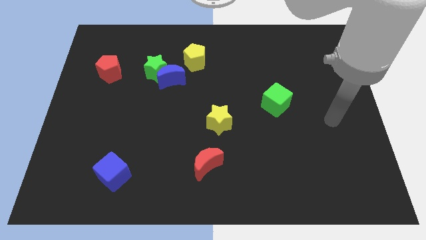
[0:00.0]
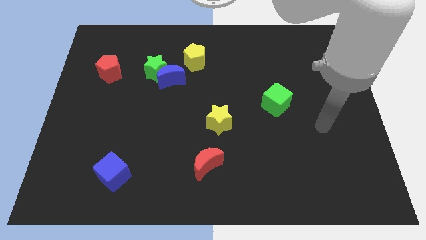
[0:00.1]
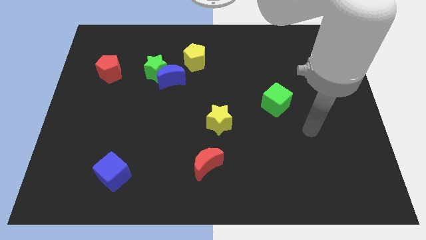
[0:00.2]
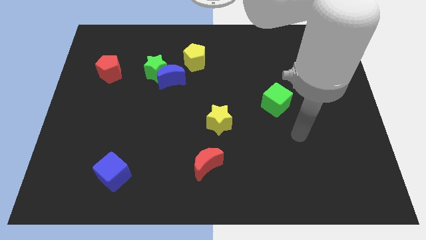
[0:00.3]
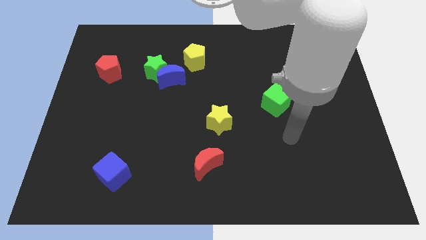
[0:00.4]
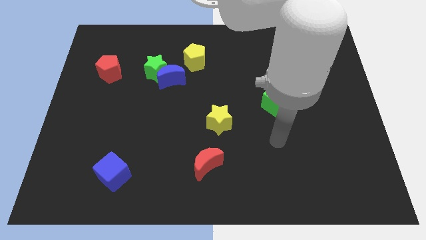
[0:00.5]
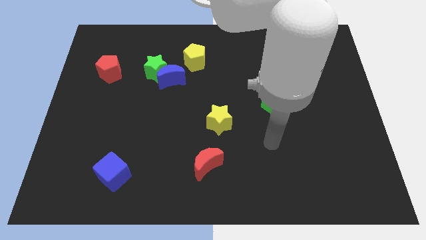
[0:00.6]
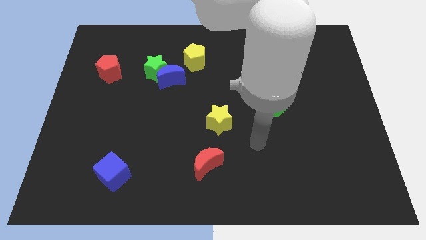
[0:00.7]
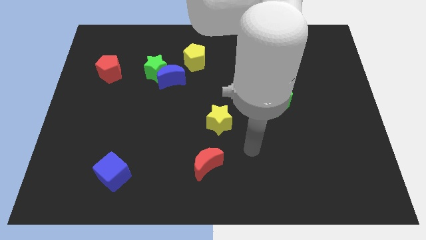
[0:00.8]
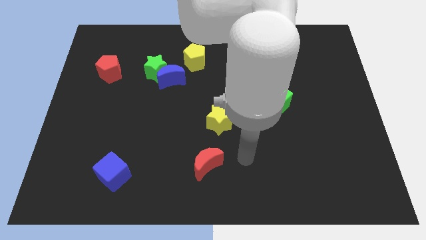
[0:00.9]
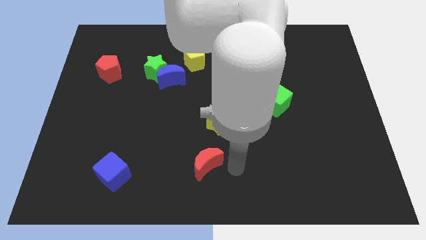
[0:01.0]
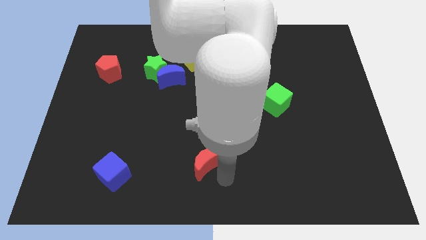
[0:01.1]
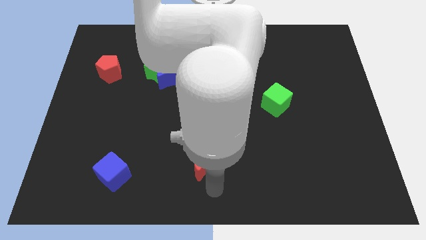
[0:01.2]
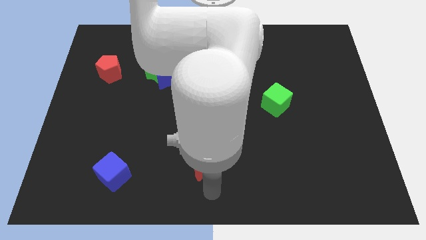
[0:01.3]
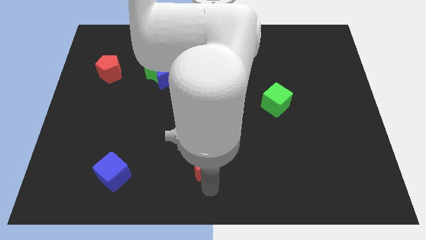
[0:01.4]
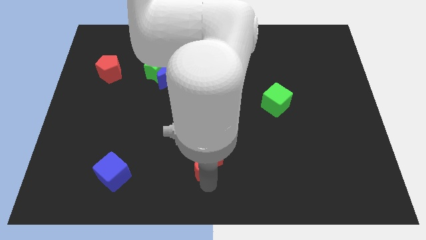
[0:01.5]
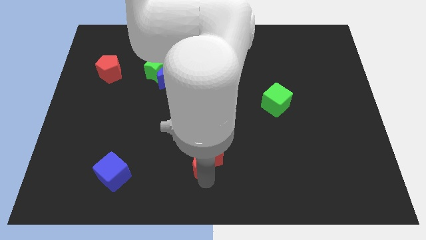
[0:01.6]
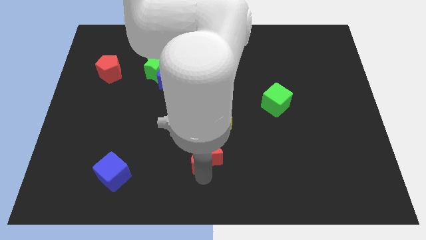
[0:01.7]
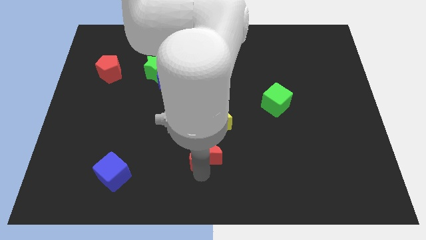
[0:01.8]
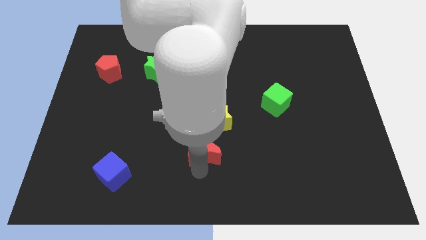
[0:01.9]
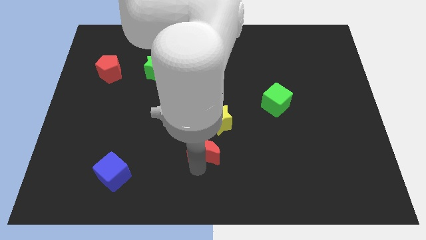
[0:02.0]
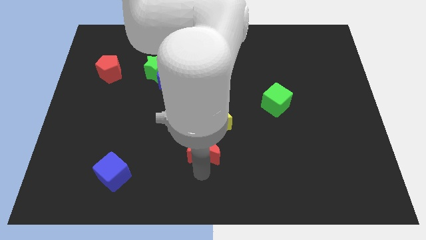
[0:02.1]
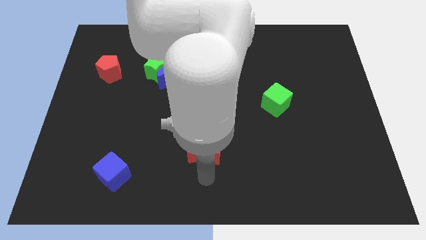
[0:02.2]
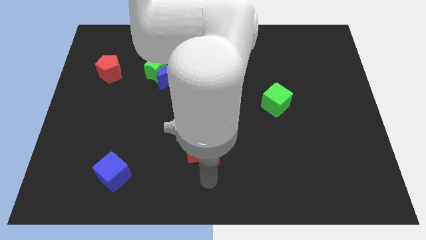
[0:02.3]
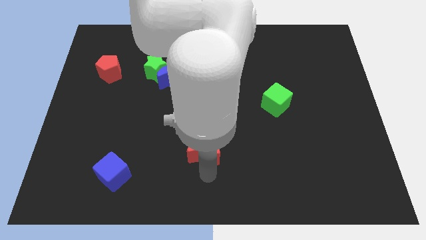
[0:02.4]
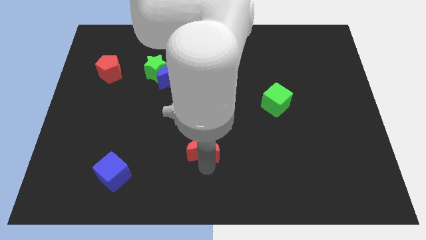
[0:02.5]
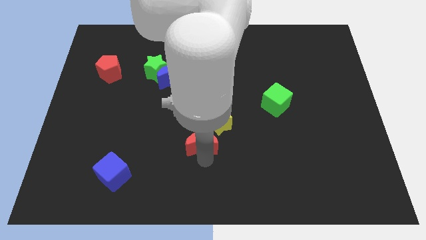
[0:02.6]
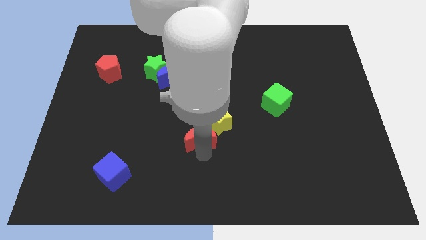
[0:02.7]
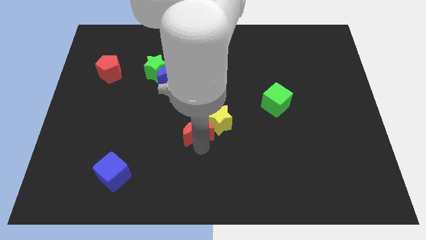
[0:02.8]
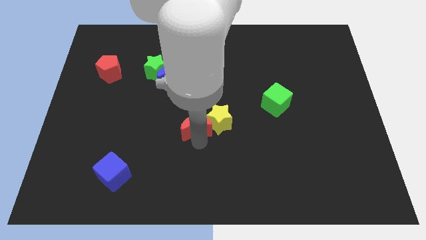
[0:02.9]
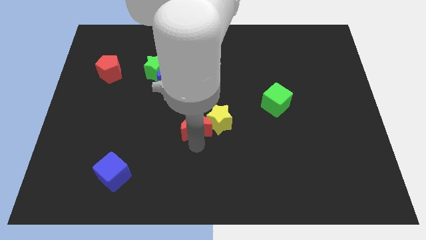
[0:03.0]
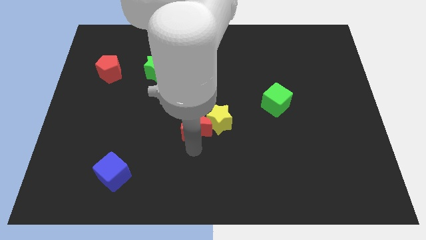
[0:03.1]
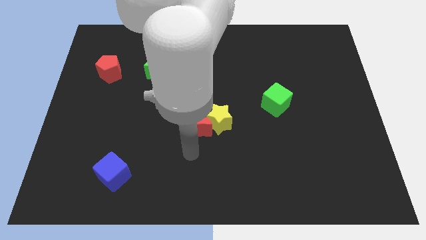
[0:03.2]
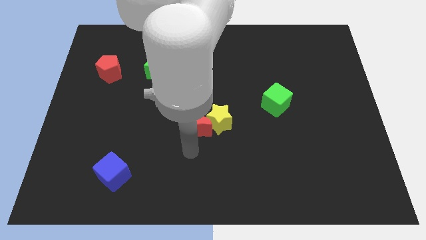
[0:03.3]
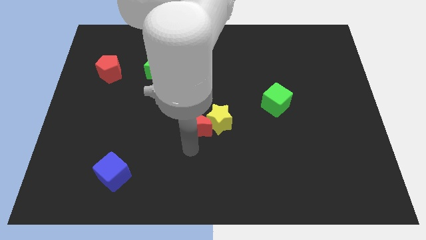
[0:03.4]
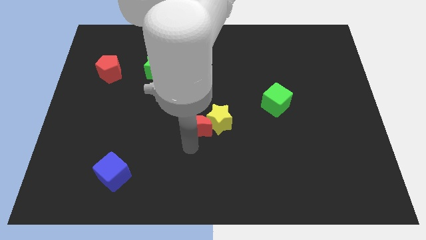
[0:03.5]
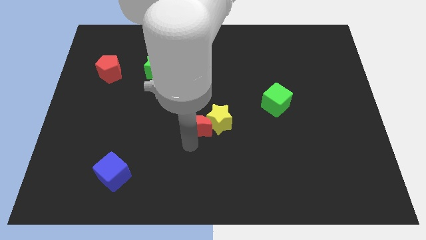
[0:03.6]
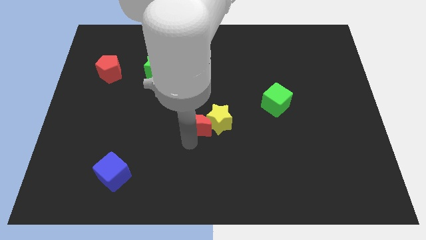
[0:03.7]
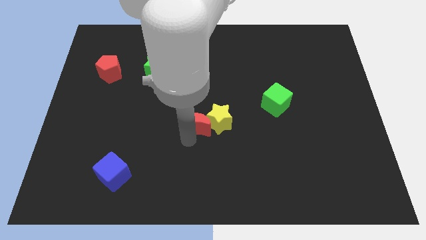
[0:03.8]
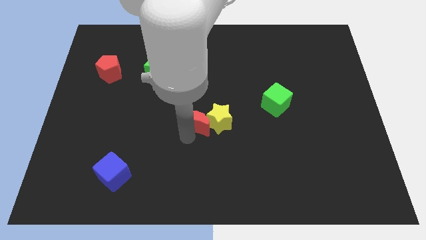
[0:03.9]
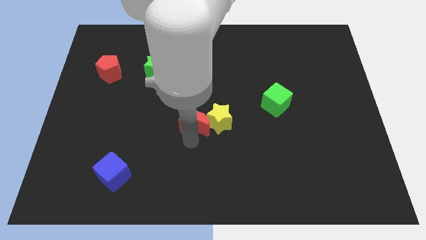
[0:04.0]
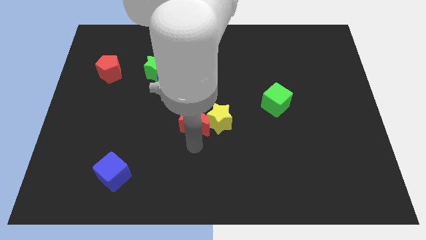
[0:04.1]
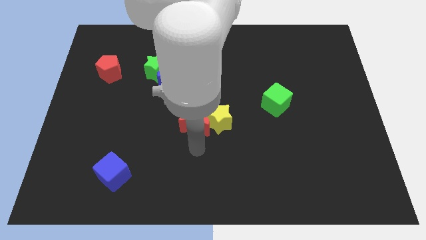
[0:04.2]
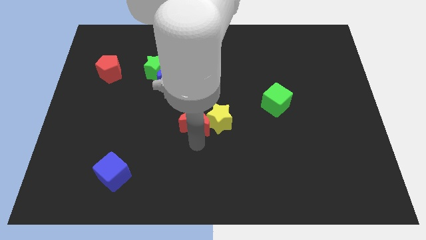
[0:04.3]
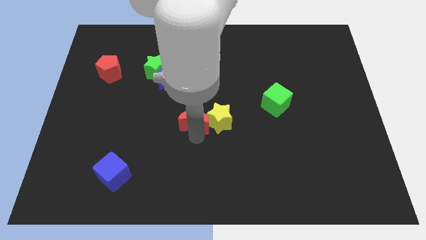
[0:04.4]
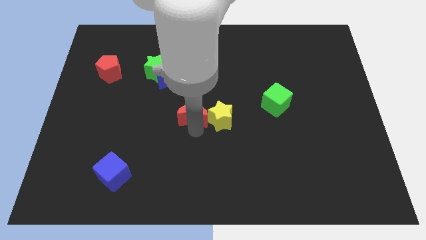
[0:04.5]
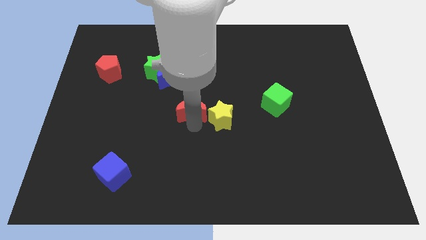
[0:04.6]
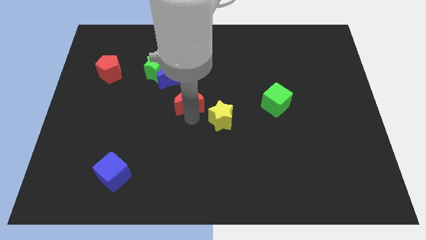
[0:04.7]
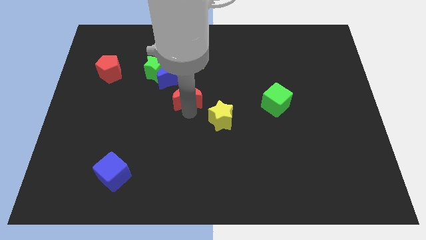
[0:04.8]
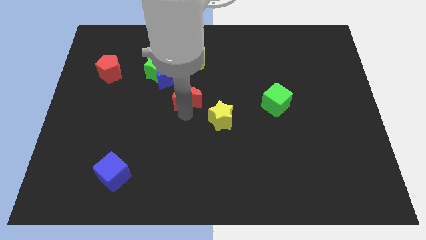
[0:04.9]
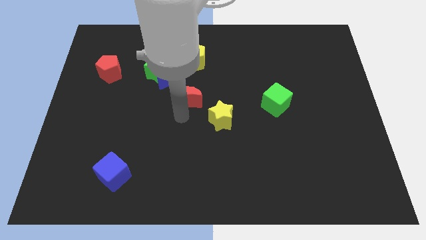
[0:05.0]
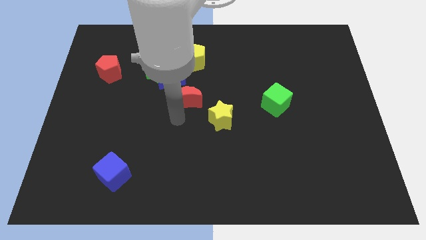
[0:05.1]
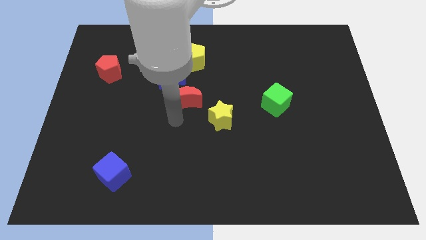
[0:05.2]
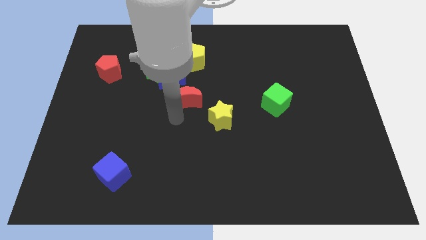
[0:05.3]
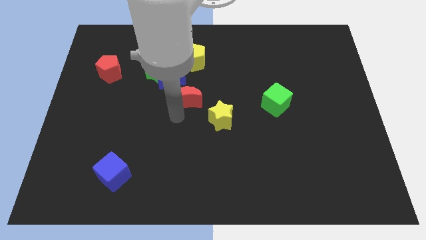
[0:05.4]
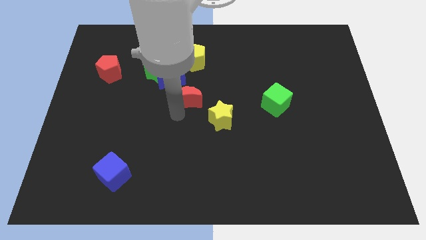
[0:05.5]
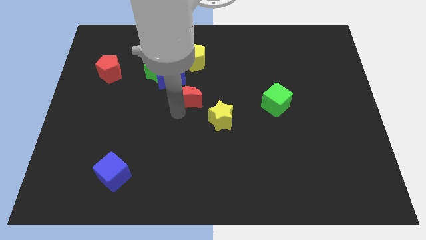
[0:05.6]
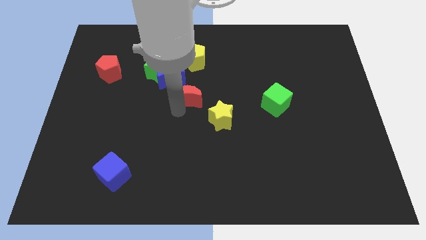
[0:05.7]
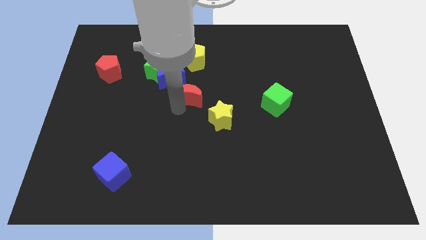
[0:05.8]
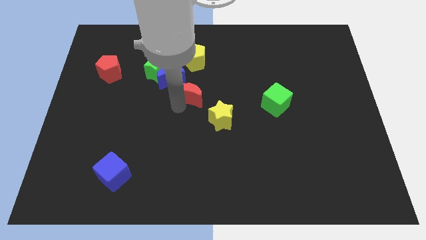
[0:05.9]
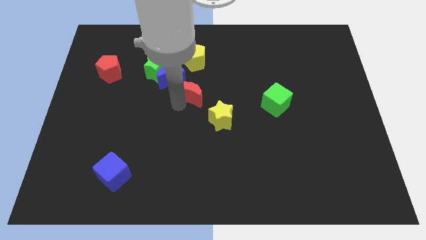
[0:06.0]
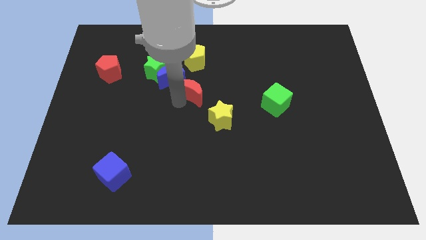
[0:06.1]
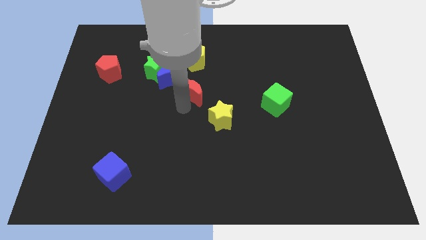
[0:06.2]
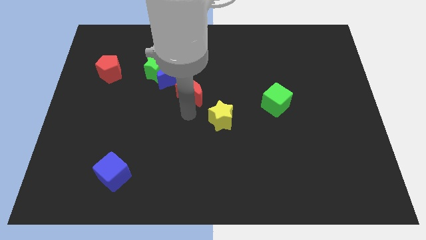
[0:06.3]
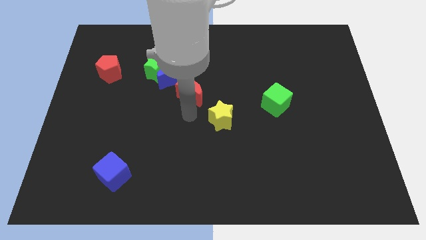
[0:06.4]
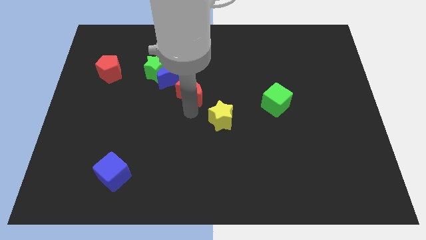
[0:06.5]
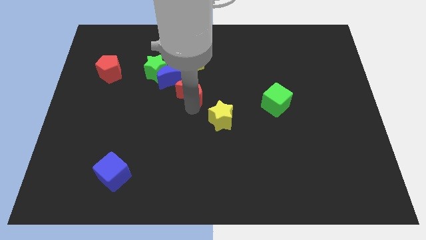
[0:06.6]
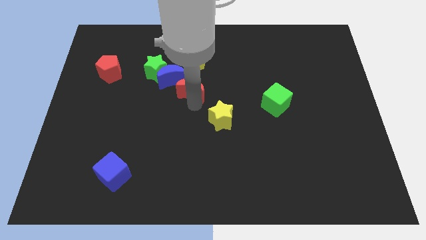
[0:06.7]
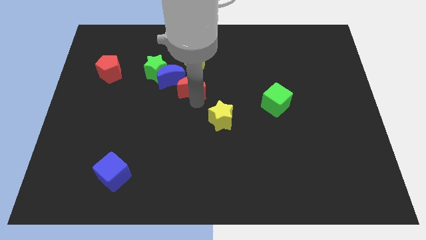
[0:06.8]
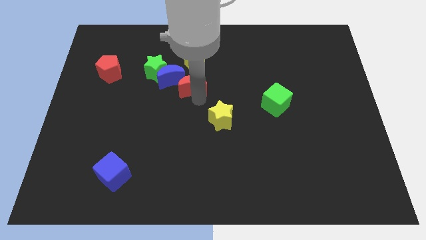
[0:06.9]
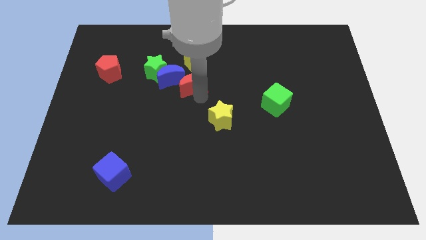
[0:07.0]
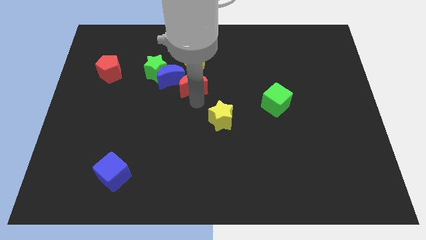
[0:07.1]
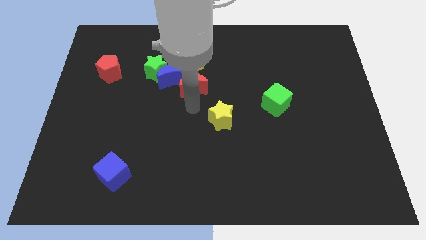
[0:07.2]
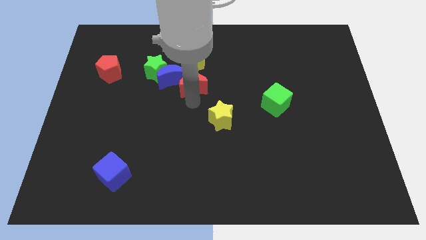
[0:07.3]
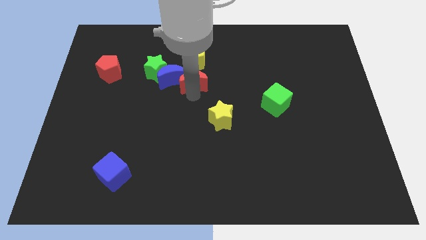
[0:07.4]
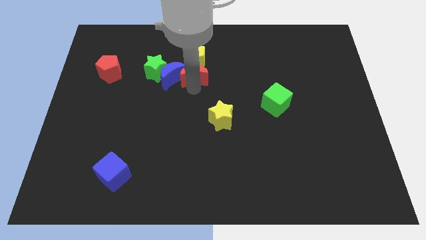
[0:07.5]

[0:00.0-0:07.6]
slide the red moon next to the yellow pentagon
